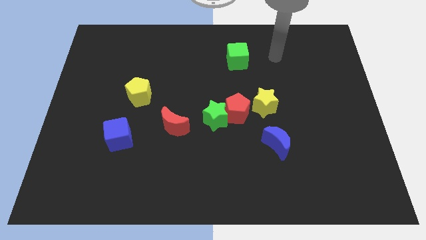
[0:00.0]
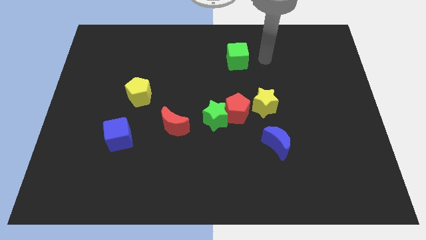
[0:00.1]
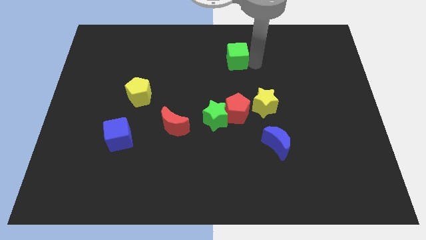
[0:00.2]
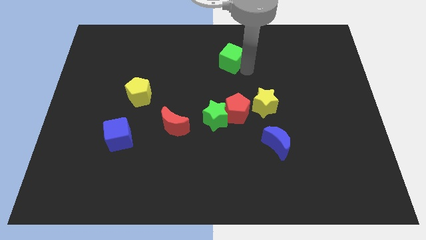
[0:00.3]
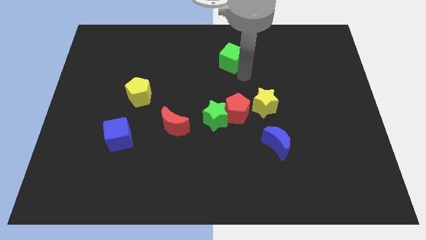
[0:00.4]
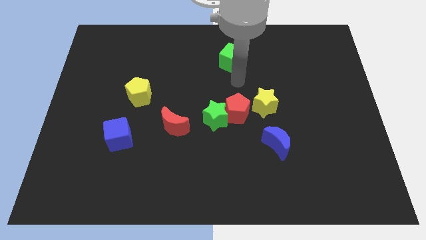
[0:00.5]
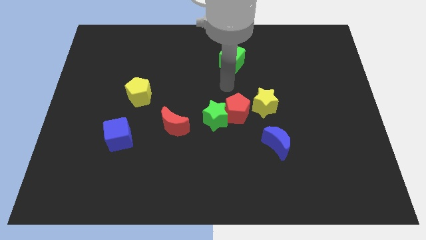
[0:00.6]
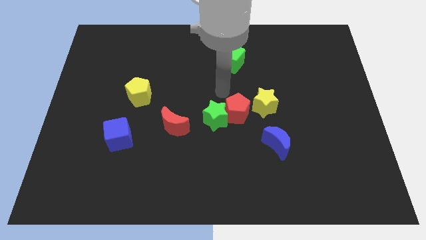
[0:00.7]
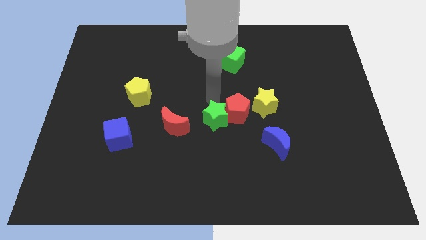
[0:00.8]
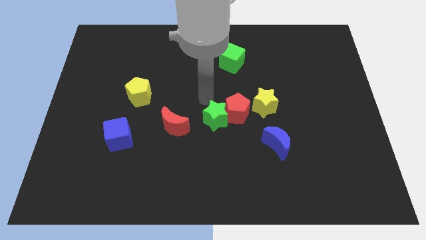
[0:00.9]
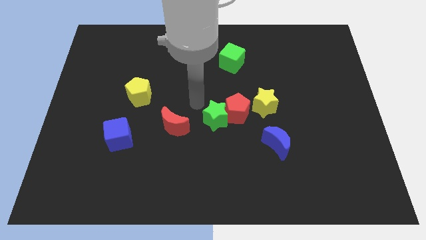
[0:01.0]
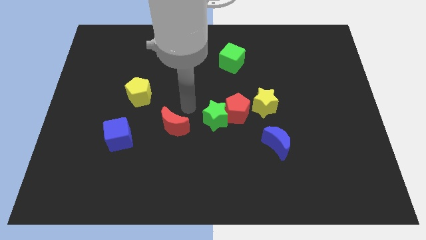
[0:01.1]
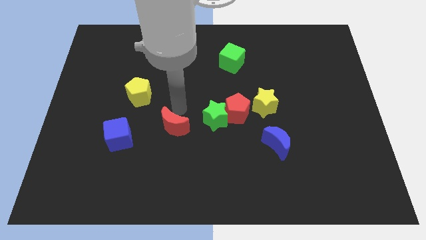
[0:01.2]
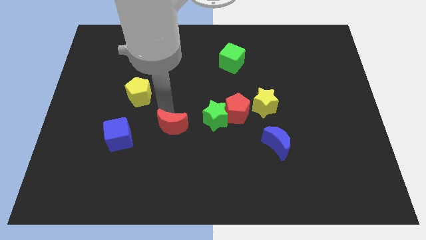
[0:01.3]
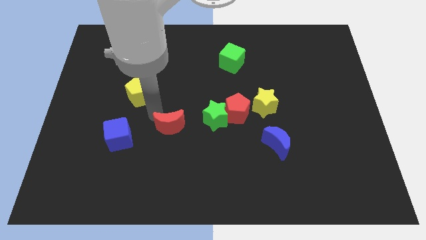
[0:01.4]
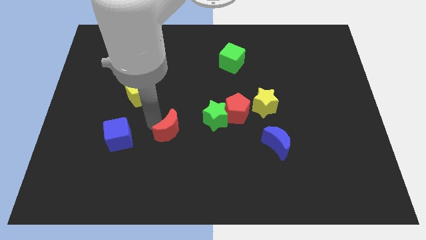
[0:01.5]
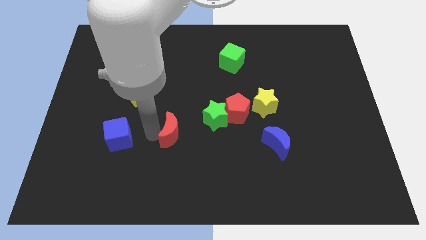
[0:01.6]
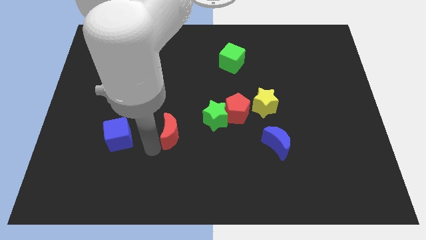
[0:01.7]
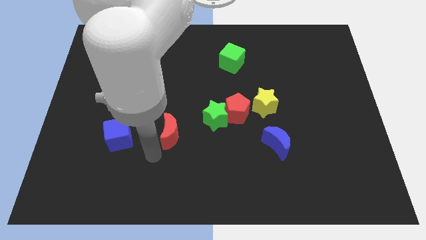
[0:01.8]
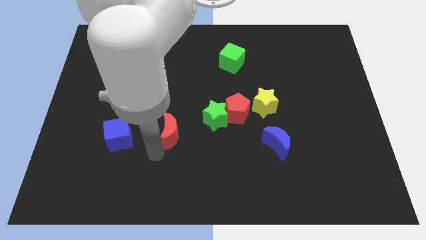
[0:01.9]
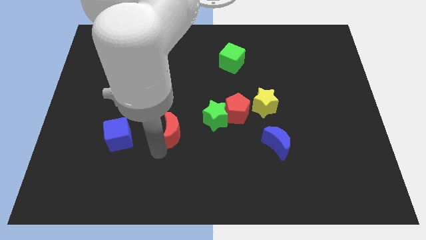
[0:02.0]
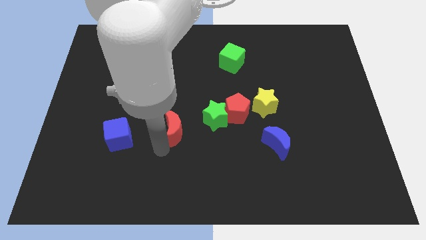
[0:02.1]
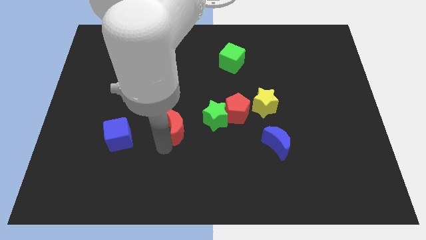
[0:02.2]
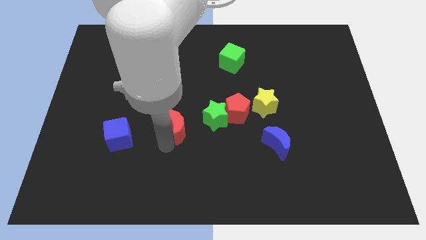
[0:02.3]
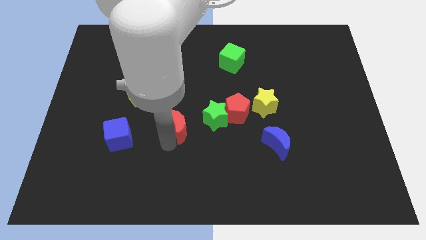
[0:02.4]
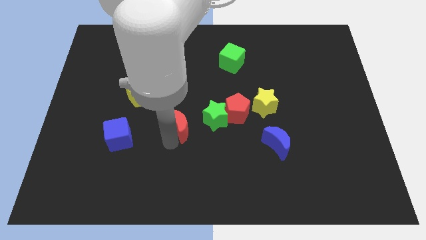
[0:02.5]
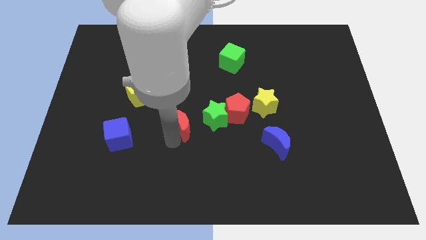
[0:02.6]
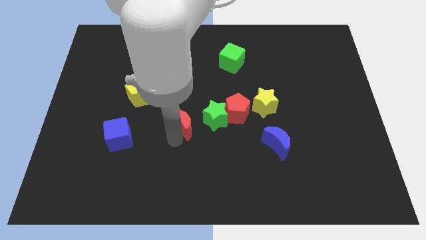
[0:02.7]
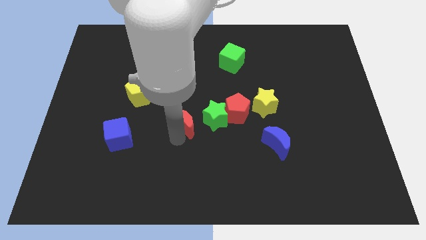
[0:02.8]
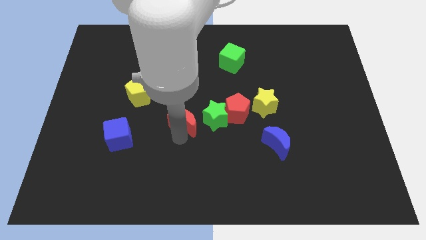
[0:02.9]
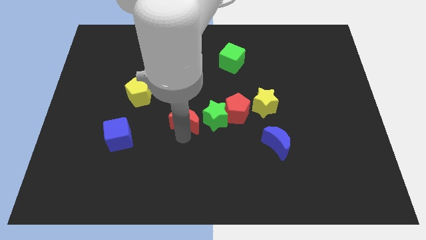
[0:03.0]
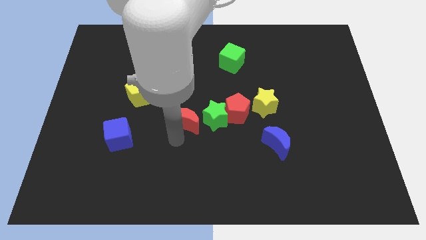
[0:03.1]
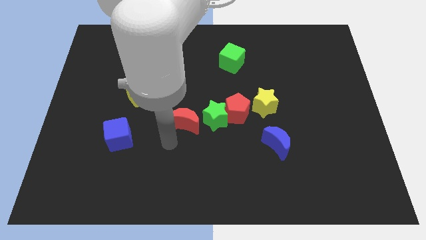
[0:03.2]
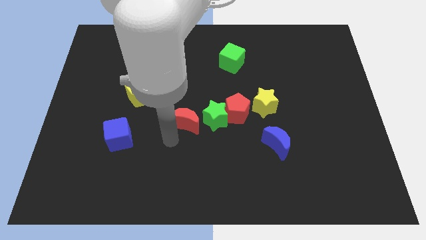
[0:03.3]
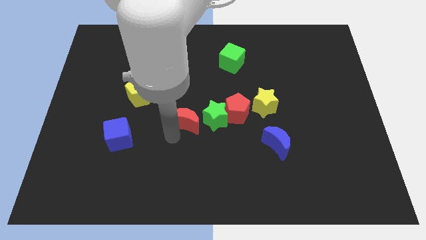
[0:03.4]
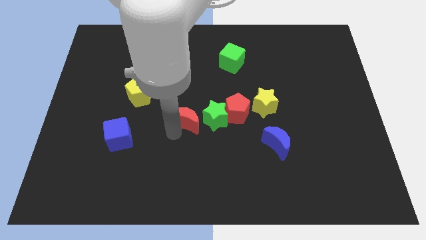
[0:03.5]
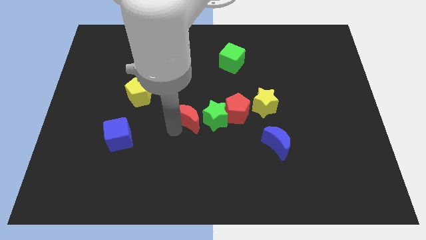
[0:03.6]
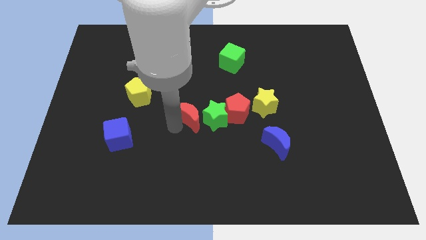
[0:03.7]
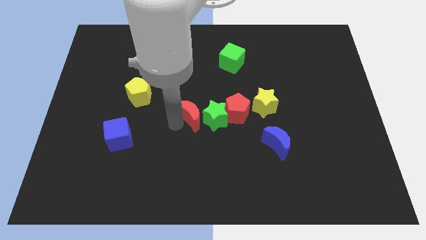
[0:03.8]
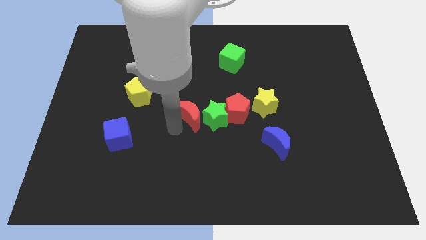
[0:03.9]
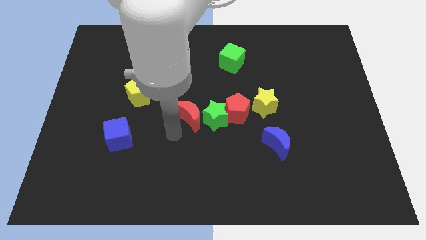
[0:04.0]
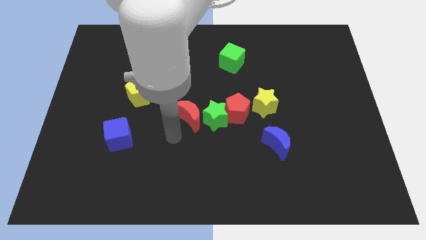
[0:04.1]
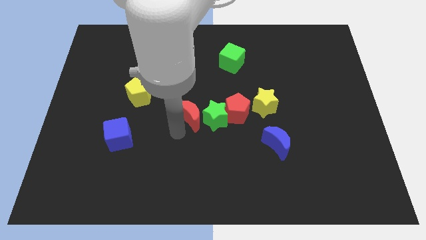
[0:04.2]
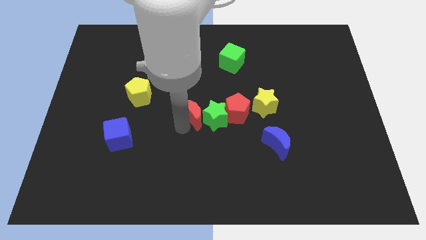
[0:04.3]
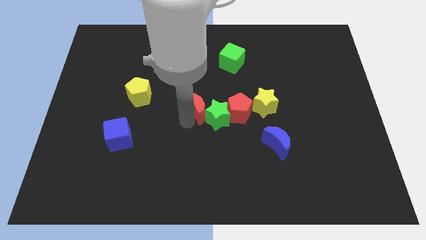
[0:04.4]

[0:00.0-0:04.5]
push the red moon a little up and right

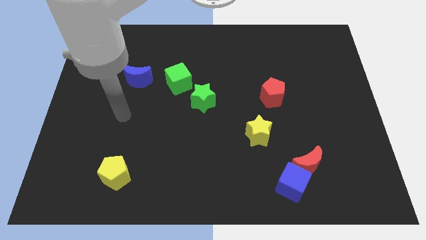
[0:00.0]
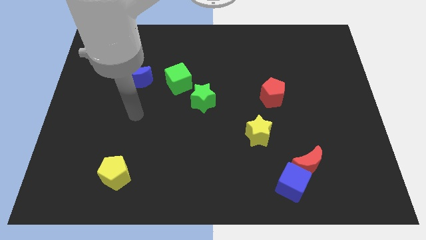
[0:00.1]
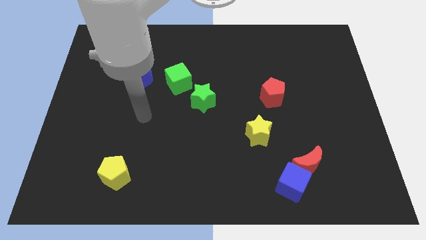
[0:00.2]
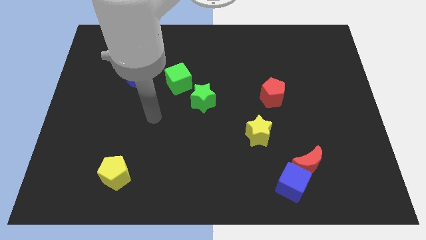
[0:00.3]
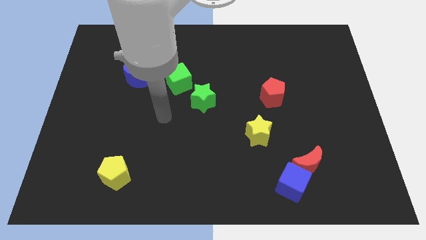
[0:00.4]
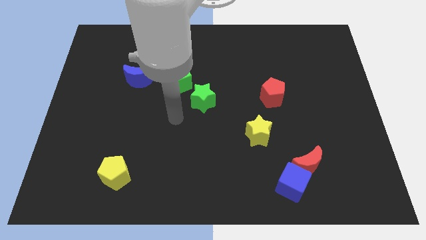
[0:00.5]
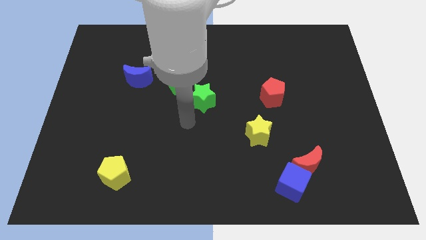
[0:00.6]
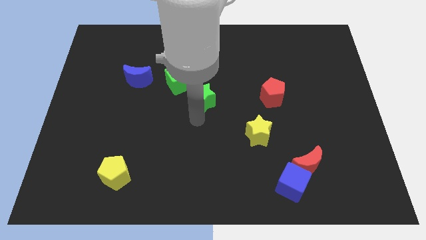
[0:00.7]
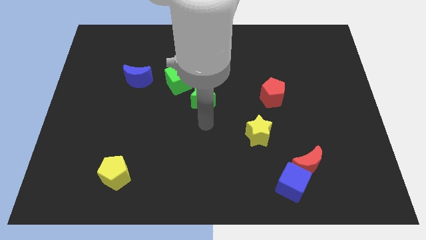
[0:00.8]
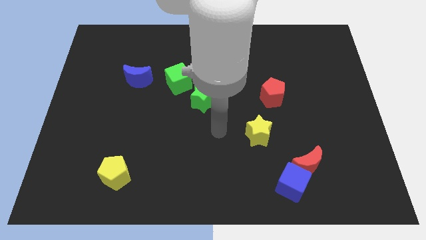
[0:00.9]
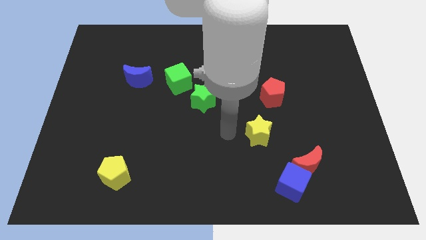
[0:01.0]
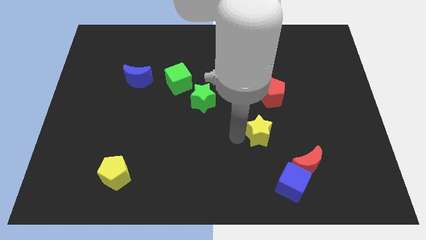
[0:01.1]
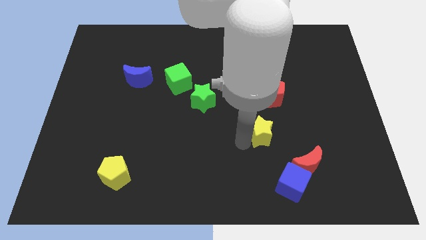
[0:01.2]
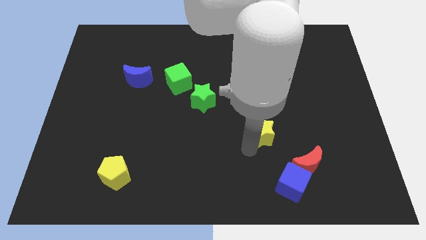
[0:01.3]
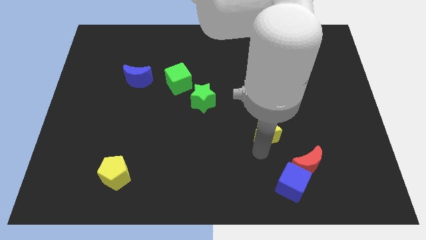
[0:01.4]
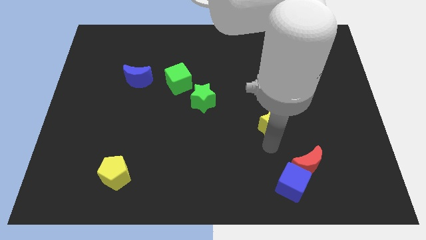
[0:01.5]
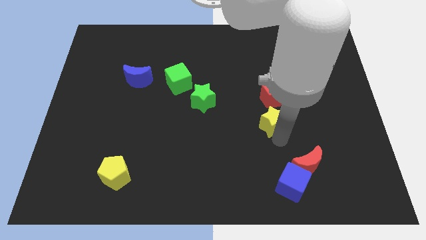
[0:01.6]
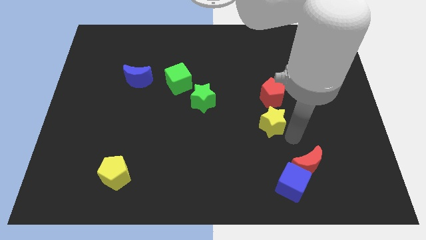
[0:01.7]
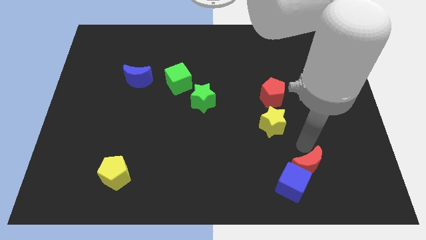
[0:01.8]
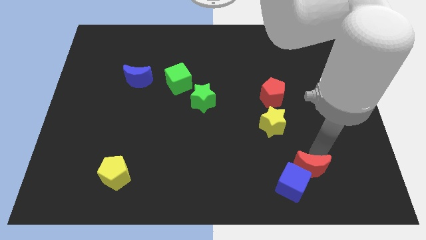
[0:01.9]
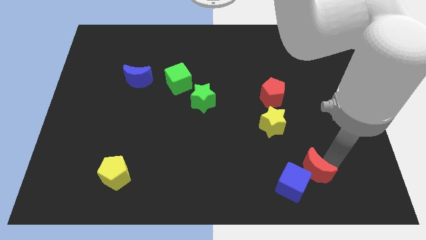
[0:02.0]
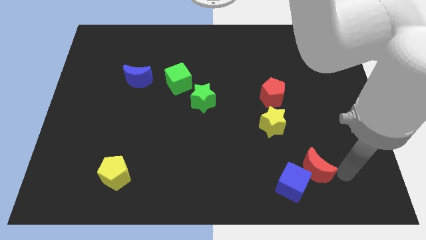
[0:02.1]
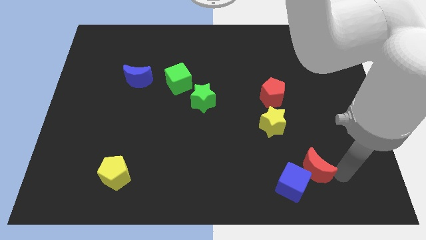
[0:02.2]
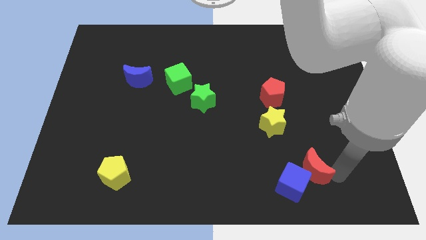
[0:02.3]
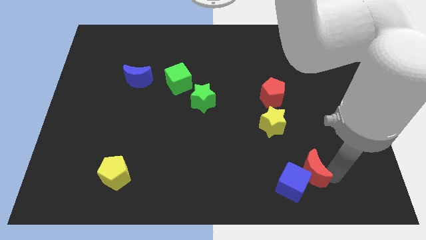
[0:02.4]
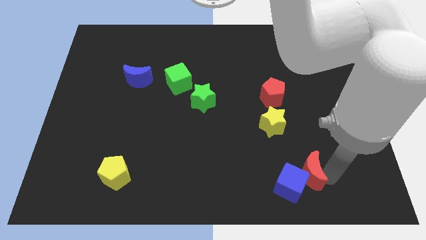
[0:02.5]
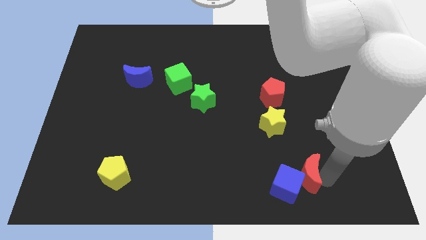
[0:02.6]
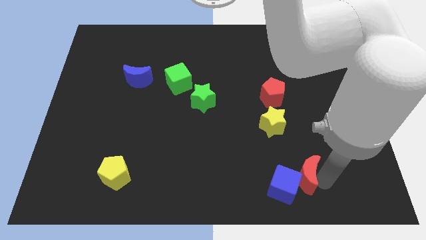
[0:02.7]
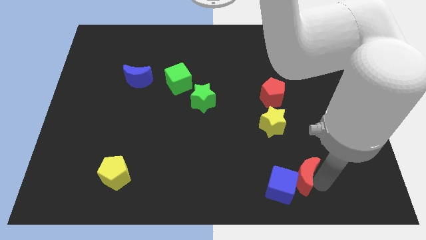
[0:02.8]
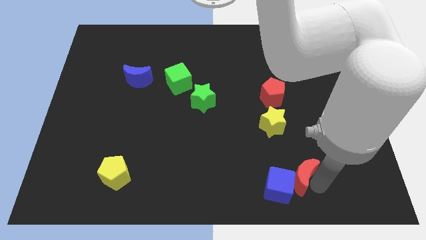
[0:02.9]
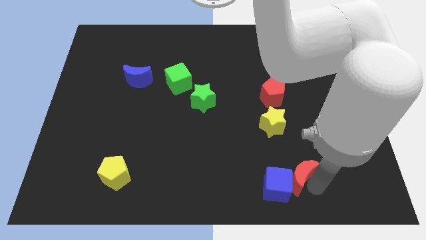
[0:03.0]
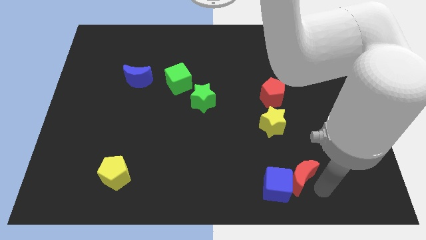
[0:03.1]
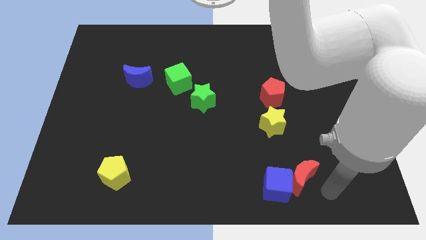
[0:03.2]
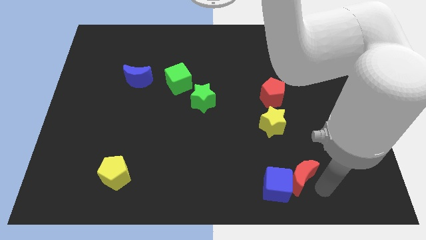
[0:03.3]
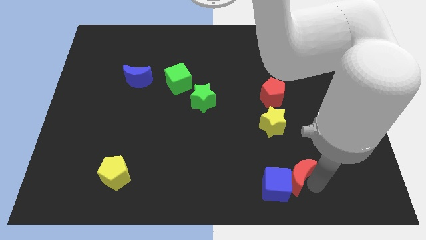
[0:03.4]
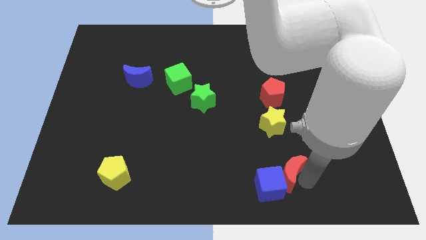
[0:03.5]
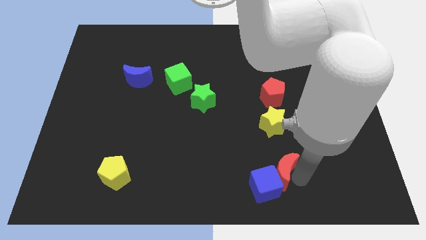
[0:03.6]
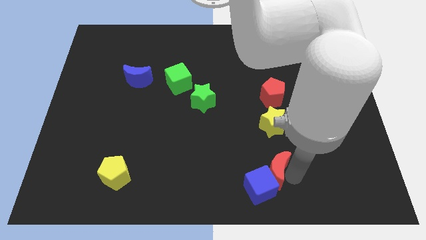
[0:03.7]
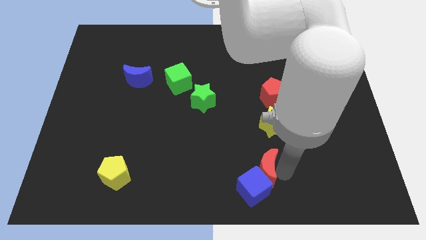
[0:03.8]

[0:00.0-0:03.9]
slightly push the red moon left
